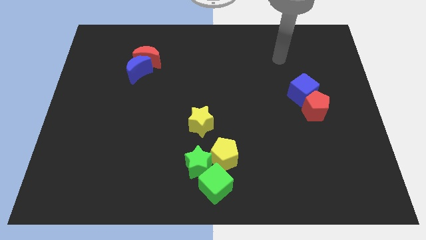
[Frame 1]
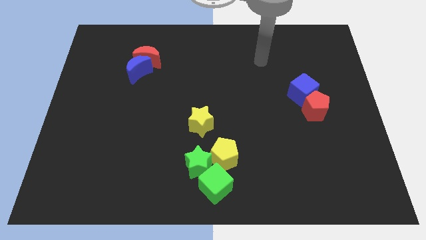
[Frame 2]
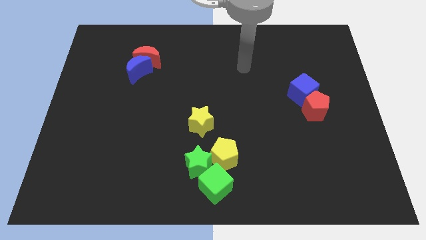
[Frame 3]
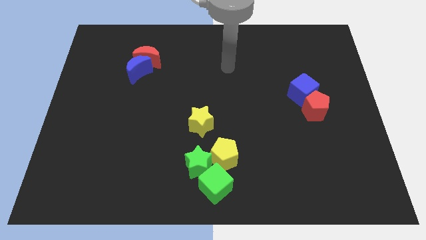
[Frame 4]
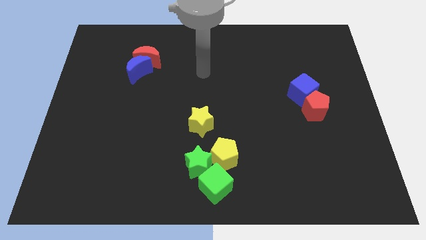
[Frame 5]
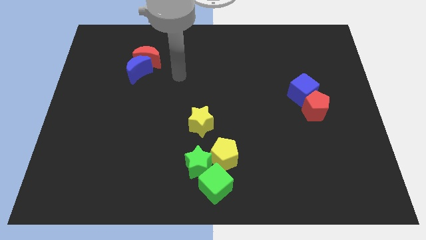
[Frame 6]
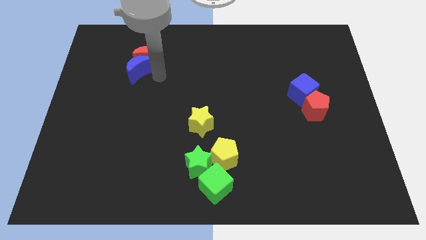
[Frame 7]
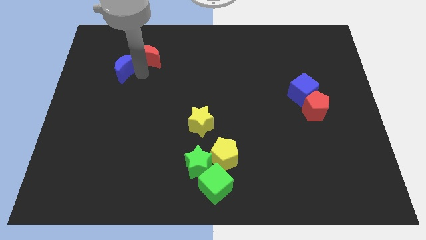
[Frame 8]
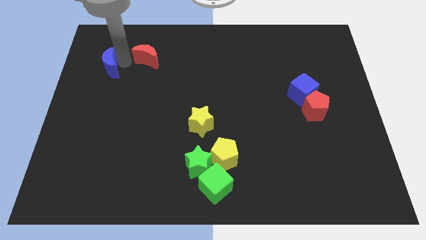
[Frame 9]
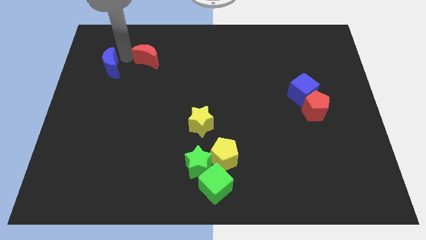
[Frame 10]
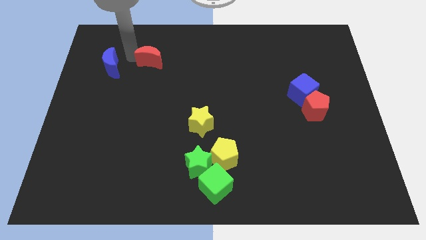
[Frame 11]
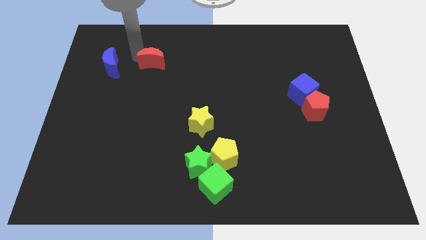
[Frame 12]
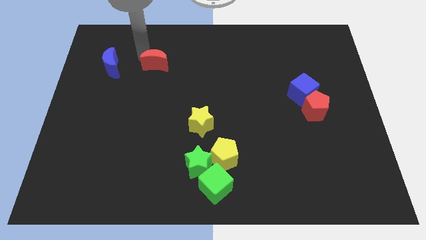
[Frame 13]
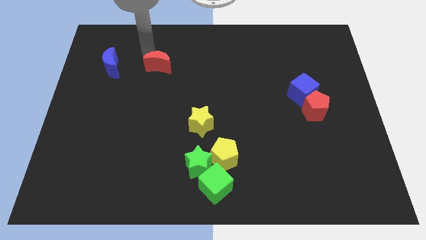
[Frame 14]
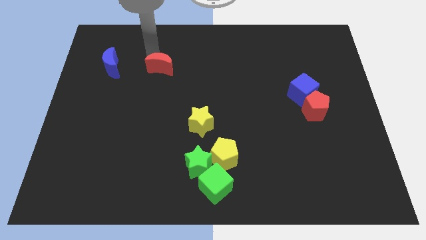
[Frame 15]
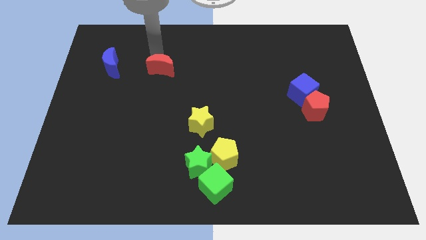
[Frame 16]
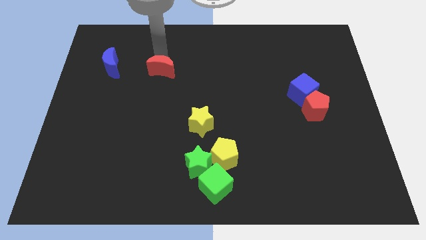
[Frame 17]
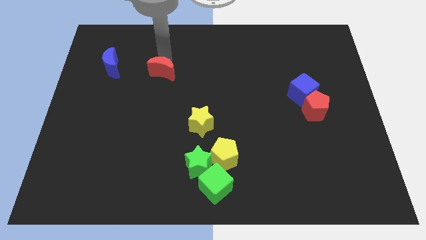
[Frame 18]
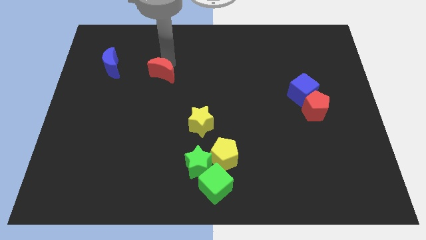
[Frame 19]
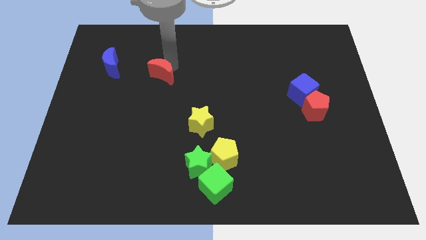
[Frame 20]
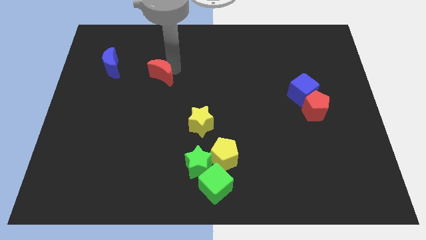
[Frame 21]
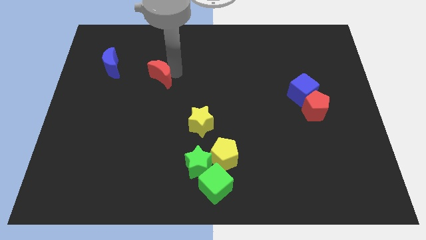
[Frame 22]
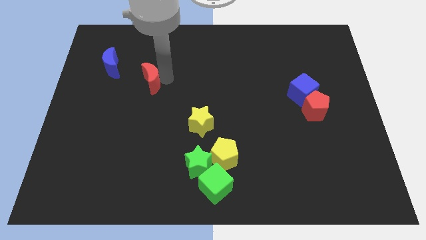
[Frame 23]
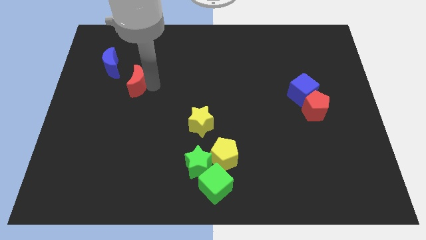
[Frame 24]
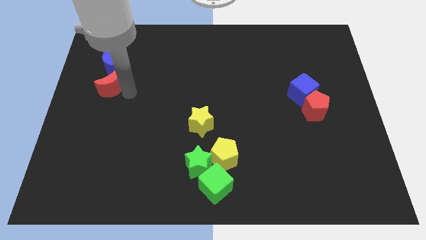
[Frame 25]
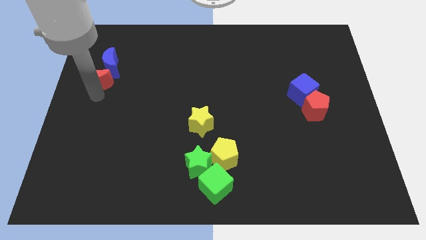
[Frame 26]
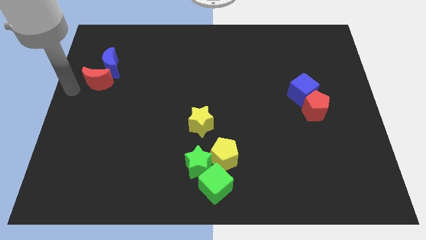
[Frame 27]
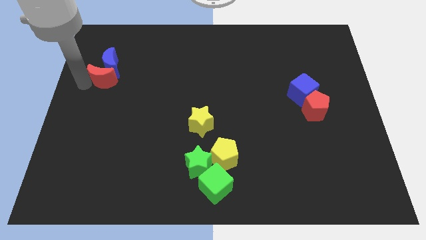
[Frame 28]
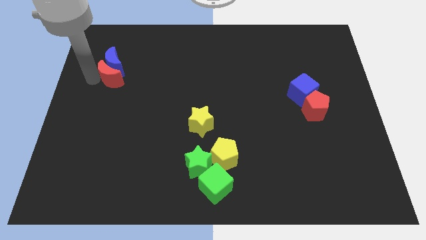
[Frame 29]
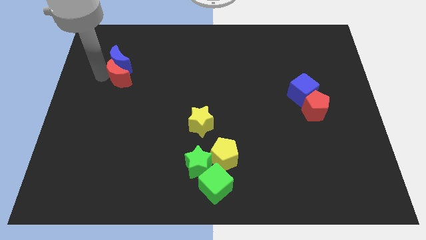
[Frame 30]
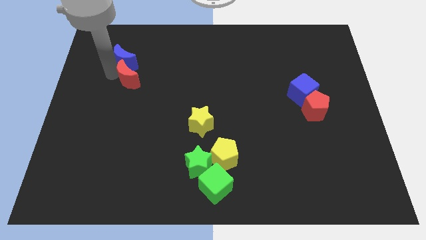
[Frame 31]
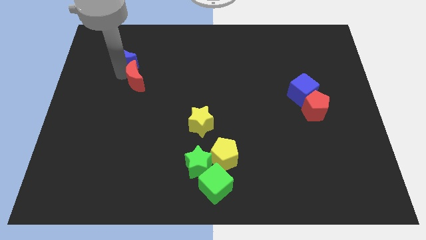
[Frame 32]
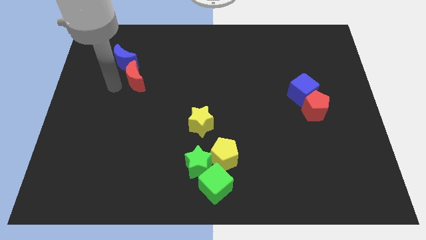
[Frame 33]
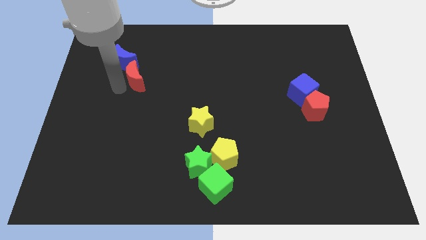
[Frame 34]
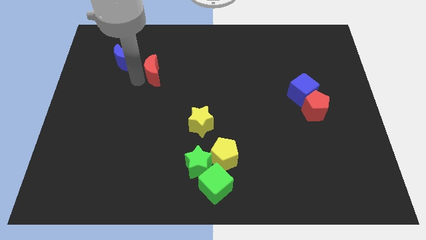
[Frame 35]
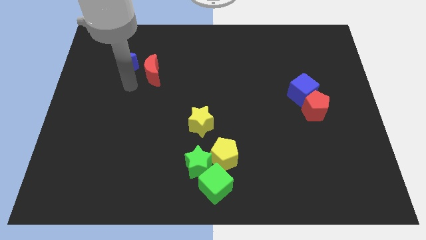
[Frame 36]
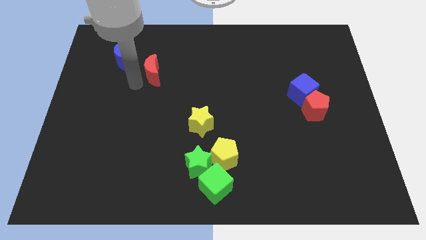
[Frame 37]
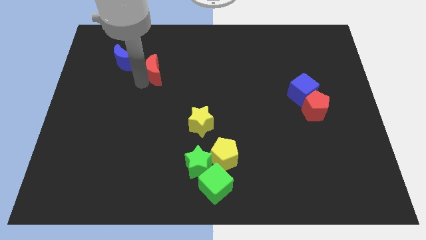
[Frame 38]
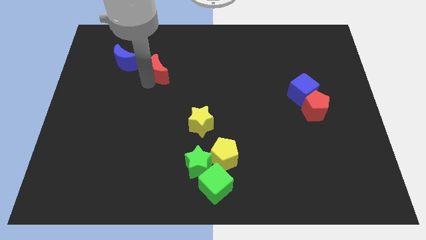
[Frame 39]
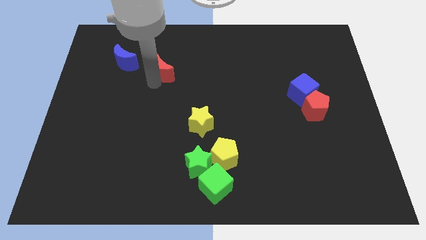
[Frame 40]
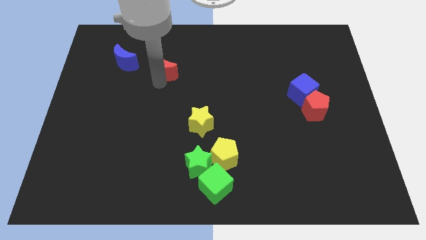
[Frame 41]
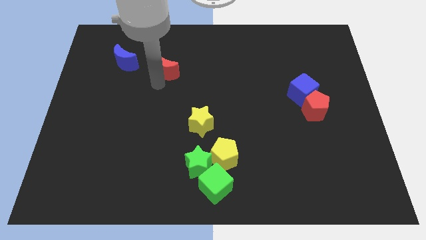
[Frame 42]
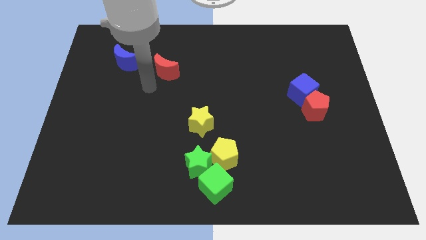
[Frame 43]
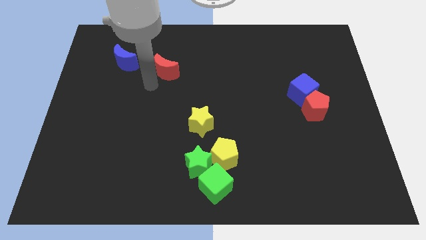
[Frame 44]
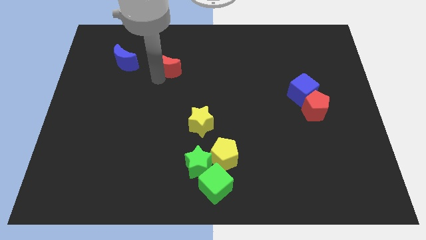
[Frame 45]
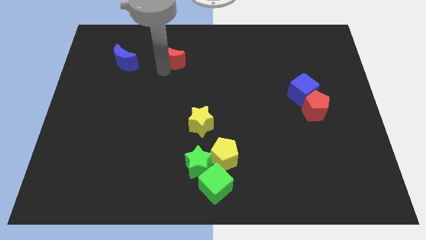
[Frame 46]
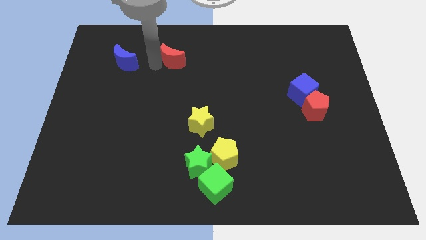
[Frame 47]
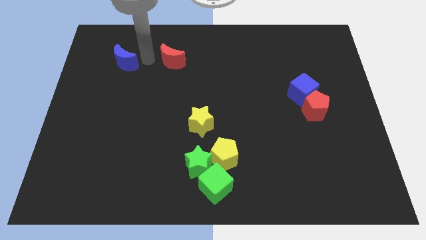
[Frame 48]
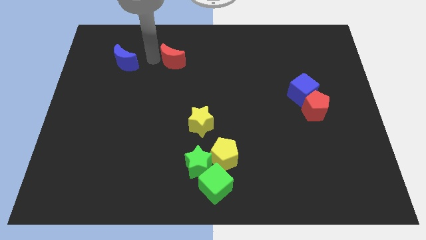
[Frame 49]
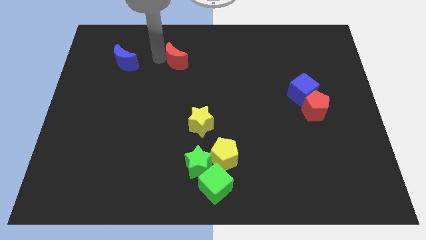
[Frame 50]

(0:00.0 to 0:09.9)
slightly slide the red moon right

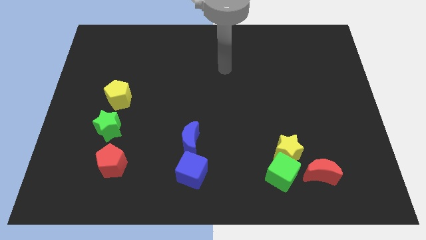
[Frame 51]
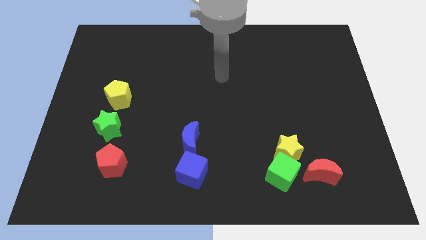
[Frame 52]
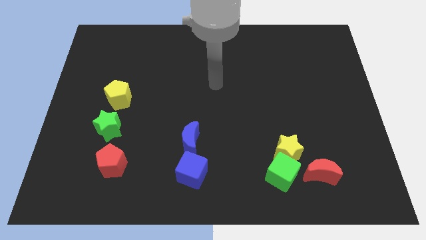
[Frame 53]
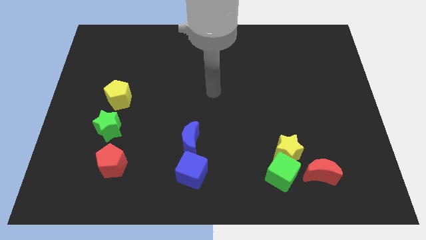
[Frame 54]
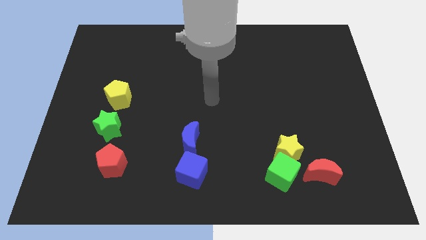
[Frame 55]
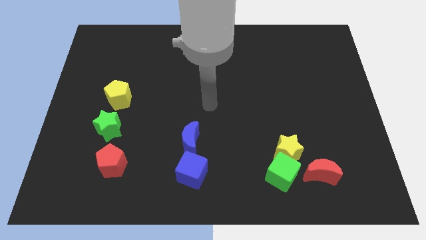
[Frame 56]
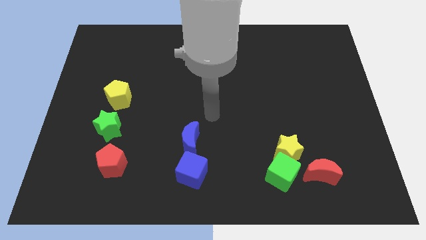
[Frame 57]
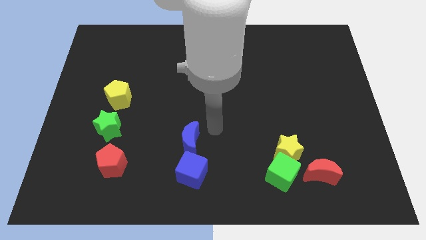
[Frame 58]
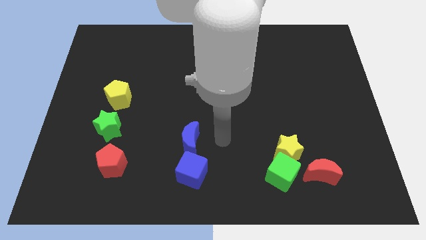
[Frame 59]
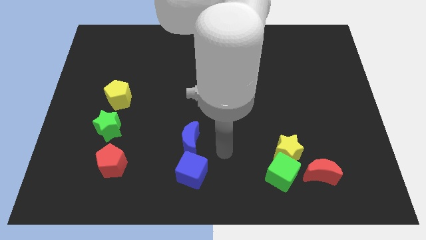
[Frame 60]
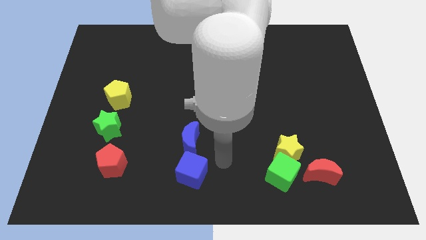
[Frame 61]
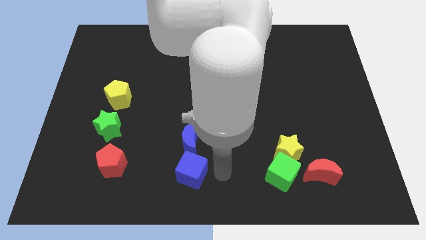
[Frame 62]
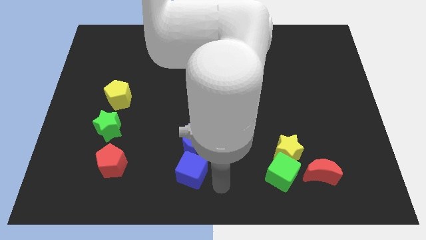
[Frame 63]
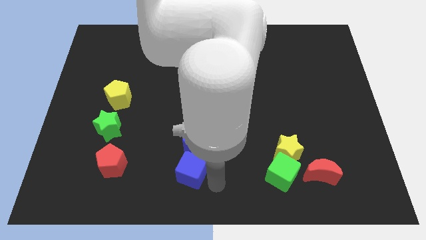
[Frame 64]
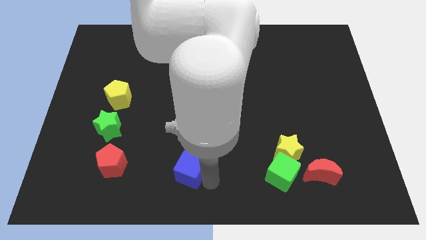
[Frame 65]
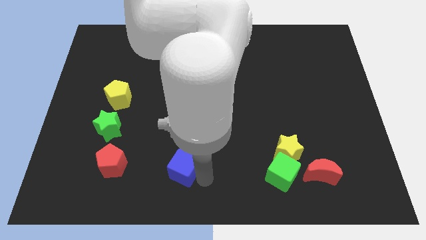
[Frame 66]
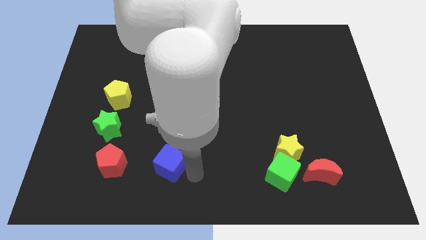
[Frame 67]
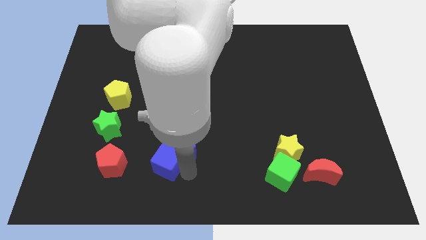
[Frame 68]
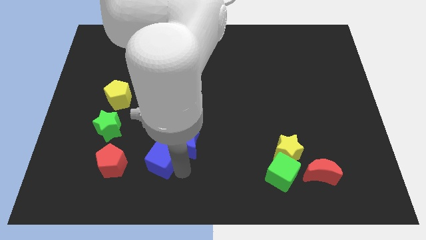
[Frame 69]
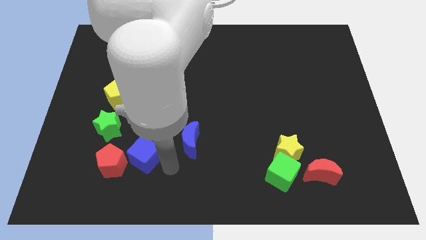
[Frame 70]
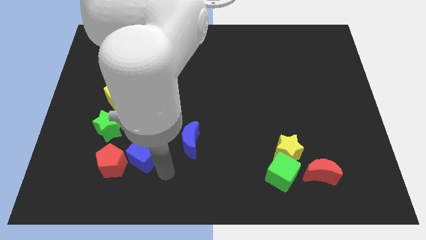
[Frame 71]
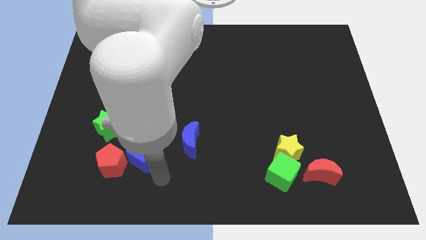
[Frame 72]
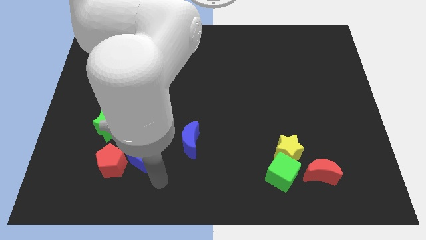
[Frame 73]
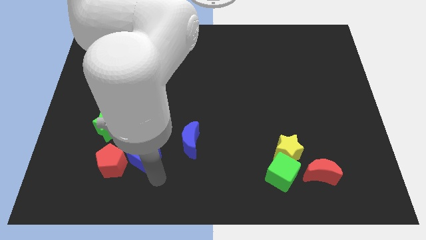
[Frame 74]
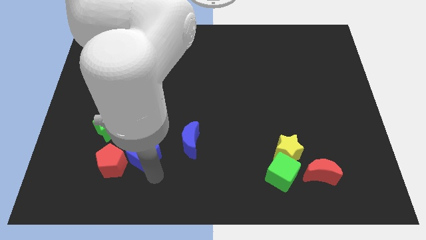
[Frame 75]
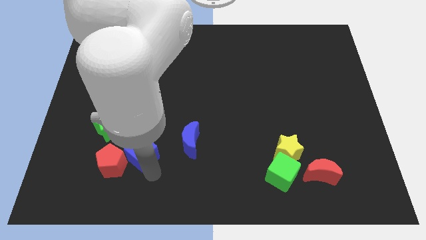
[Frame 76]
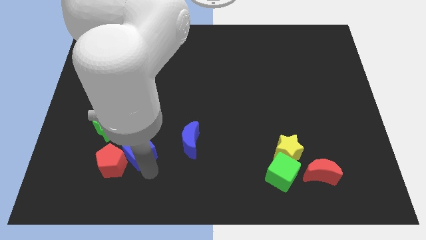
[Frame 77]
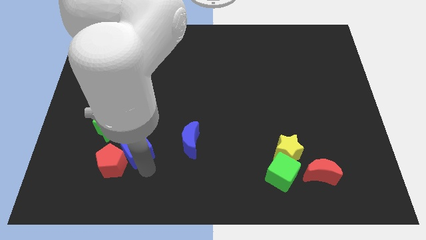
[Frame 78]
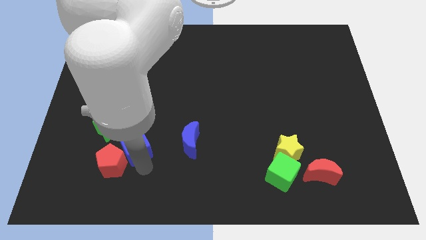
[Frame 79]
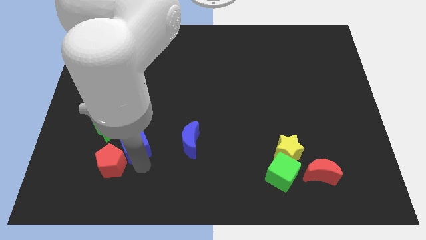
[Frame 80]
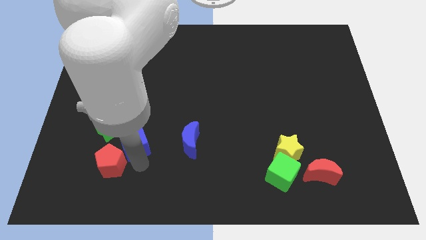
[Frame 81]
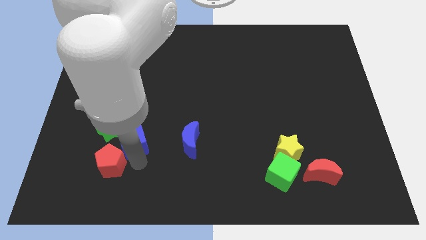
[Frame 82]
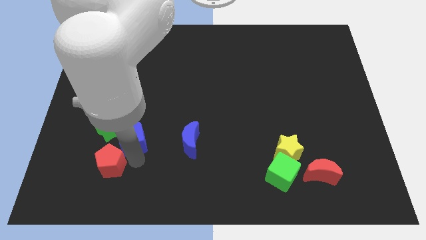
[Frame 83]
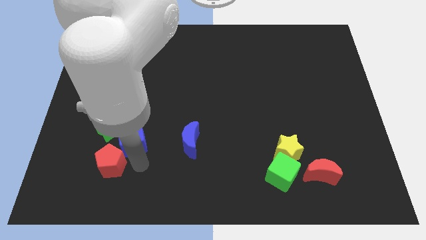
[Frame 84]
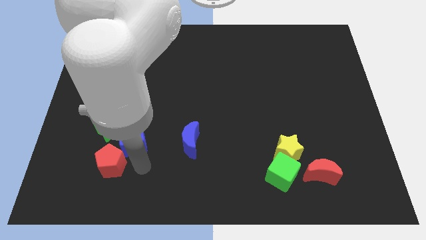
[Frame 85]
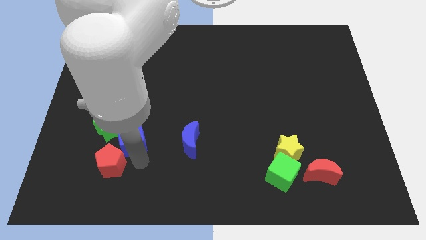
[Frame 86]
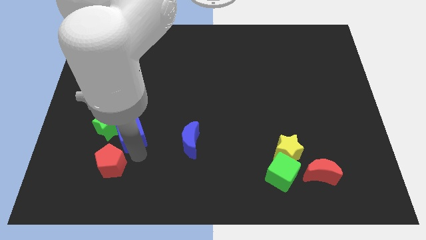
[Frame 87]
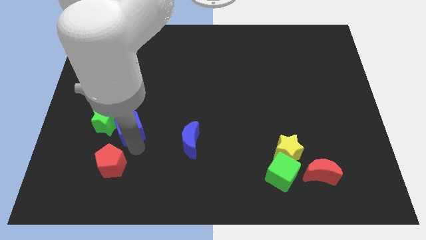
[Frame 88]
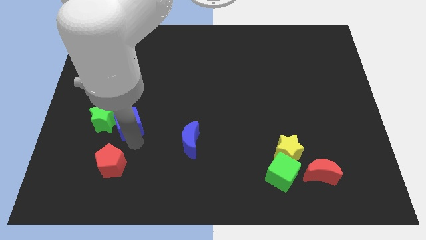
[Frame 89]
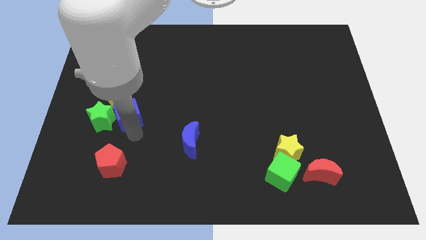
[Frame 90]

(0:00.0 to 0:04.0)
slide the blue cube up and to the left diagonally
